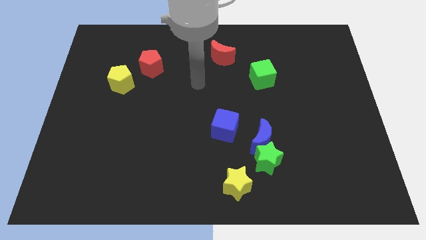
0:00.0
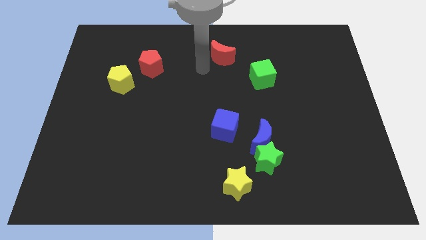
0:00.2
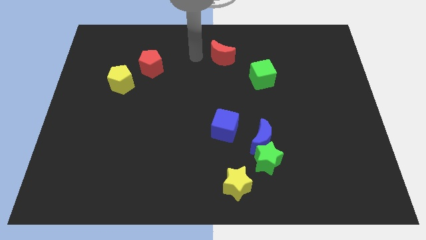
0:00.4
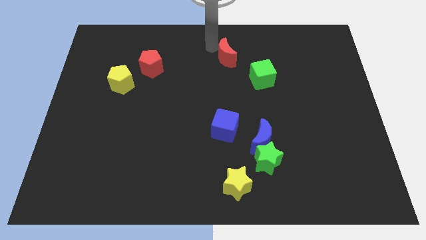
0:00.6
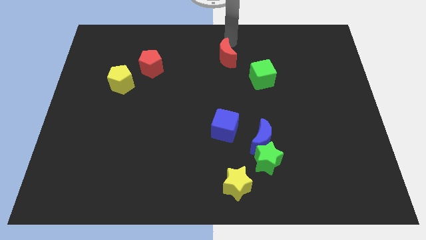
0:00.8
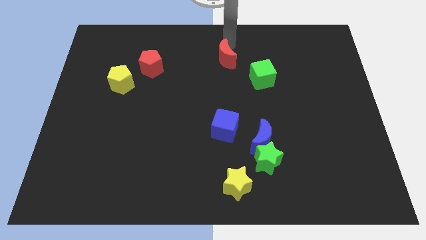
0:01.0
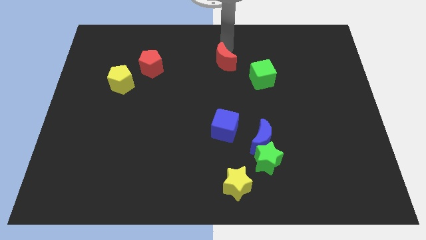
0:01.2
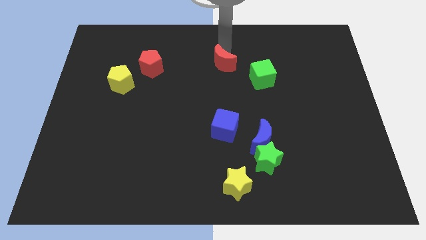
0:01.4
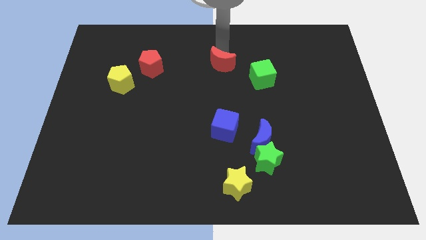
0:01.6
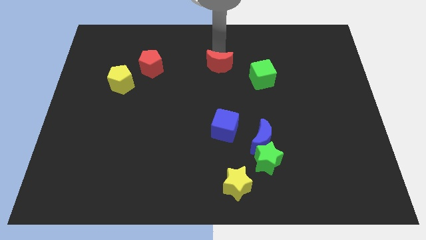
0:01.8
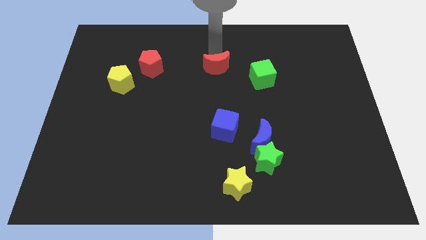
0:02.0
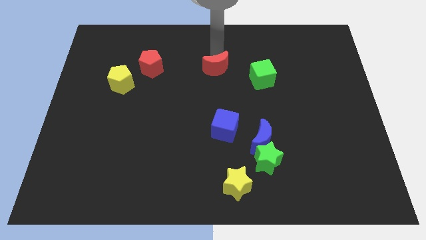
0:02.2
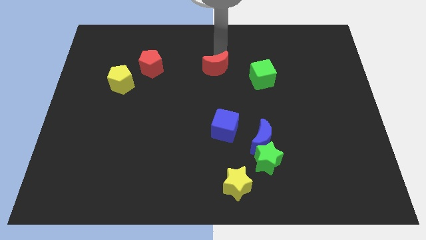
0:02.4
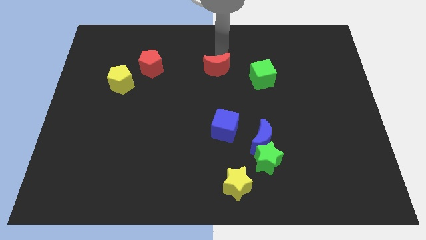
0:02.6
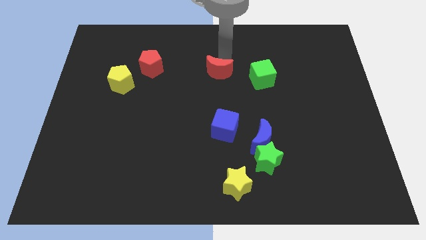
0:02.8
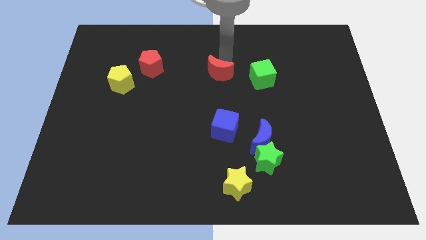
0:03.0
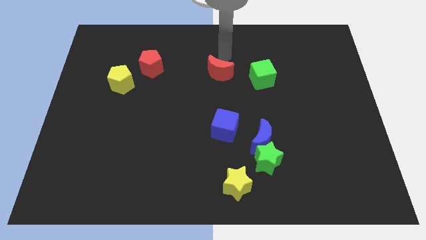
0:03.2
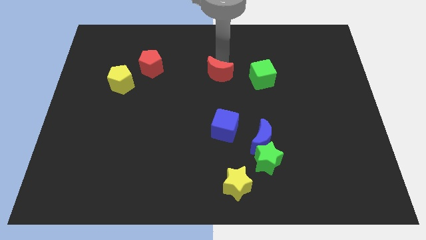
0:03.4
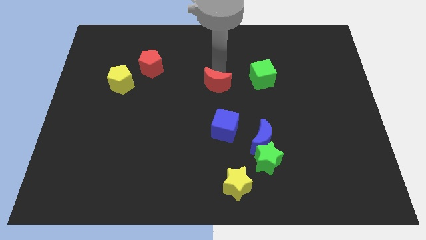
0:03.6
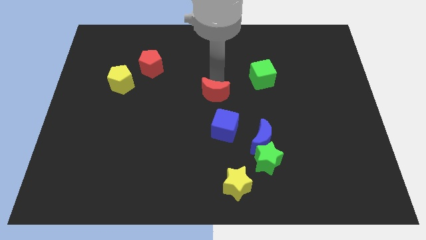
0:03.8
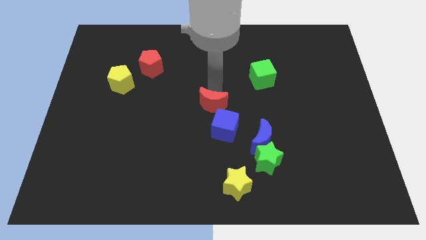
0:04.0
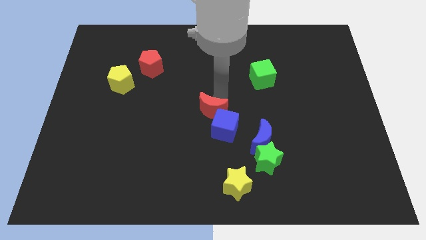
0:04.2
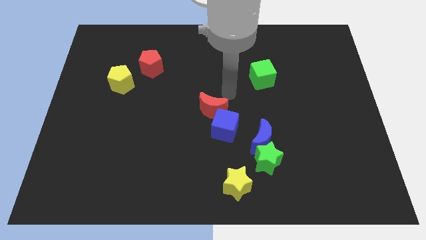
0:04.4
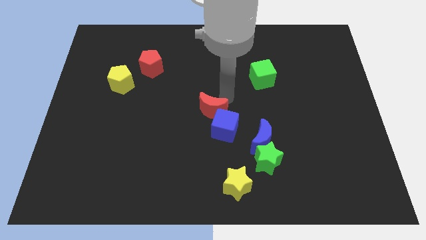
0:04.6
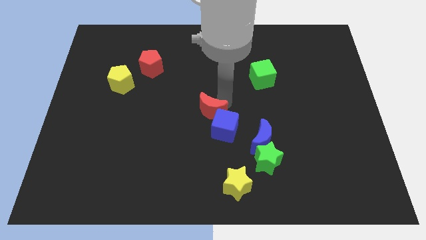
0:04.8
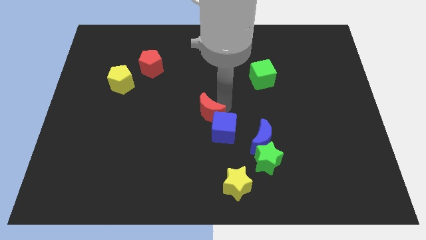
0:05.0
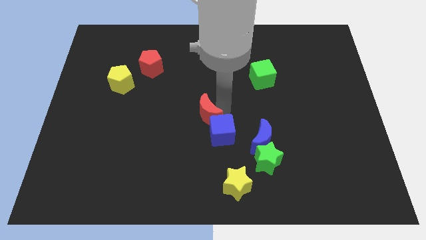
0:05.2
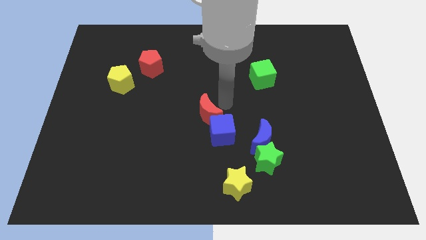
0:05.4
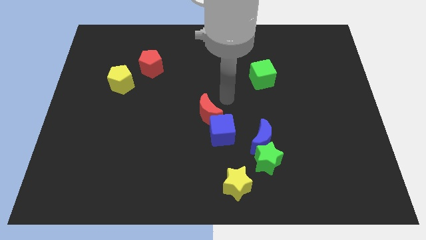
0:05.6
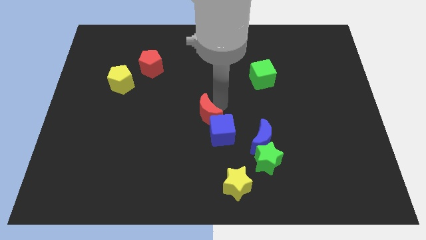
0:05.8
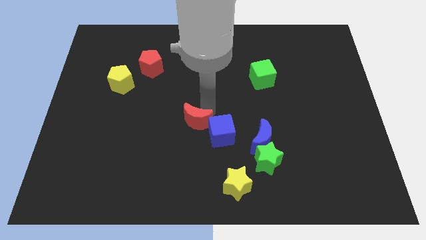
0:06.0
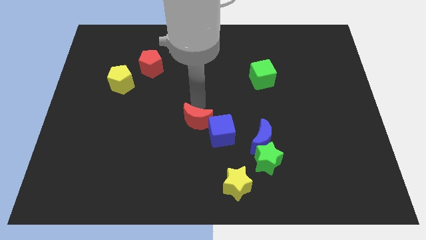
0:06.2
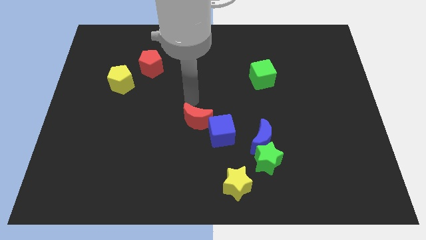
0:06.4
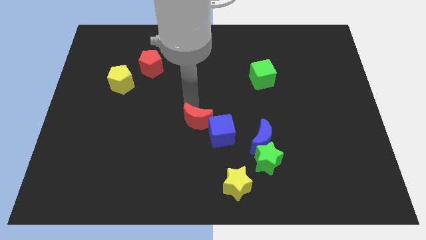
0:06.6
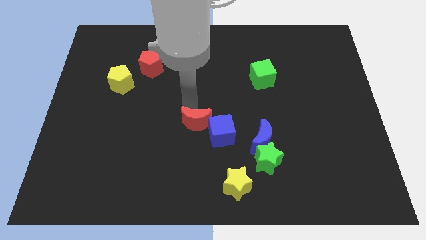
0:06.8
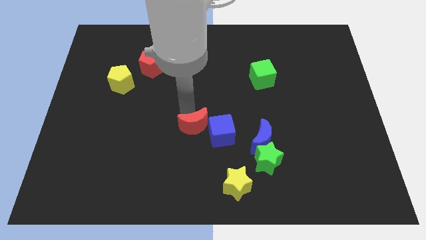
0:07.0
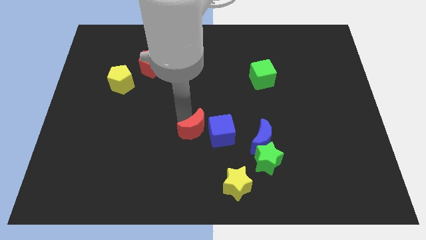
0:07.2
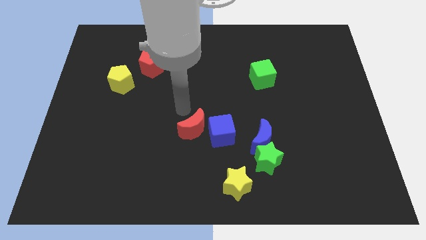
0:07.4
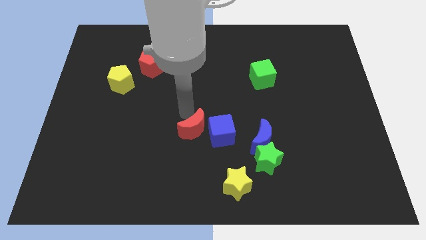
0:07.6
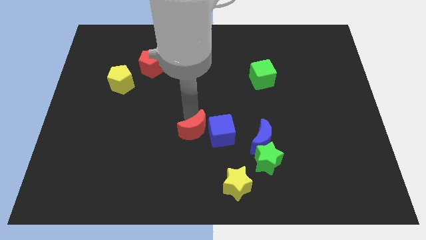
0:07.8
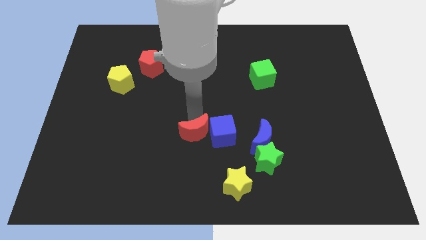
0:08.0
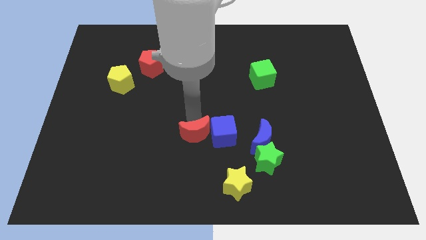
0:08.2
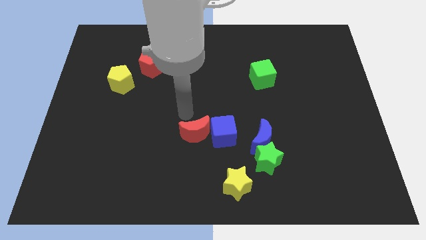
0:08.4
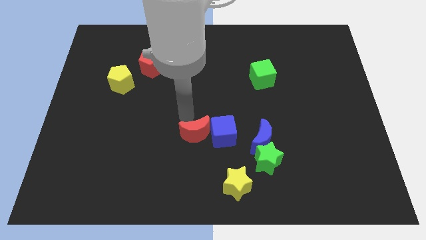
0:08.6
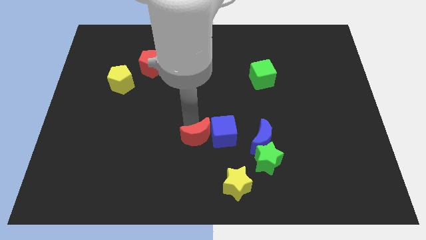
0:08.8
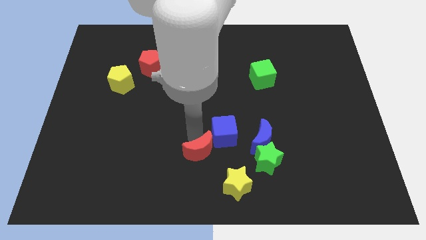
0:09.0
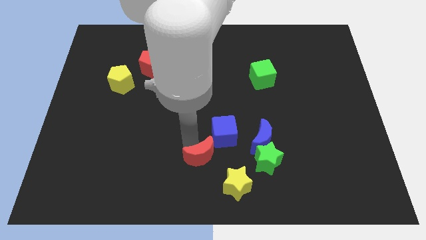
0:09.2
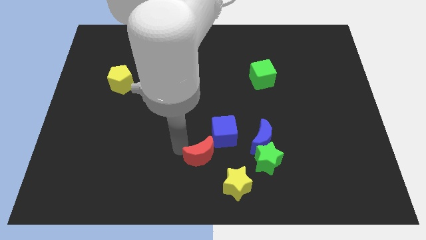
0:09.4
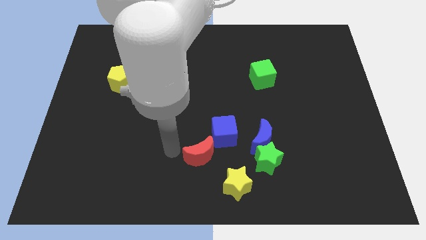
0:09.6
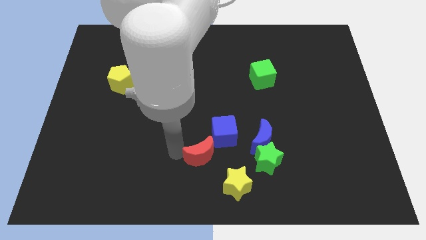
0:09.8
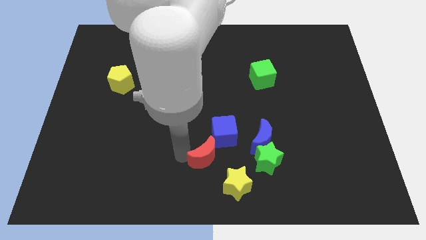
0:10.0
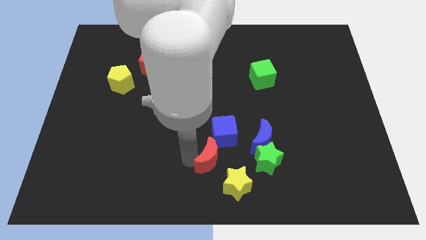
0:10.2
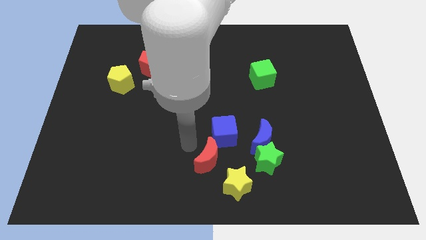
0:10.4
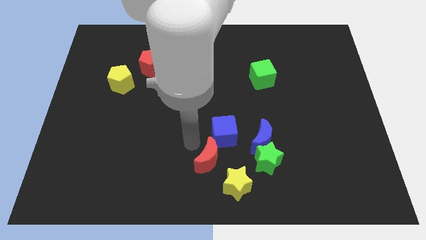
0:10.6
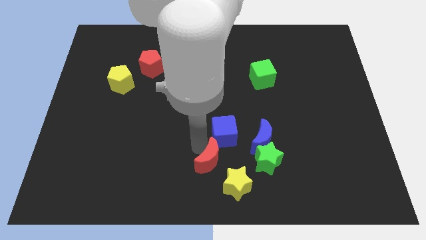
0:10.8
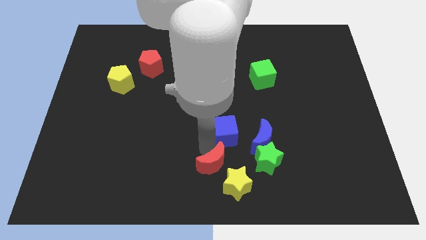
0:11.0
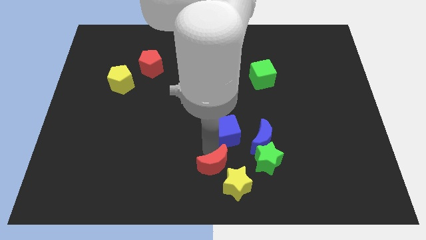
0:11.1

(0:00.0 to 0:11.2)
move the red moon next to the yellow star

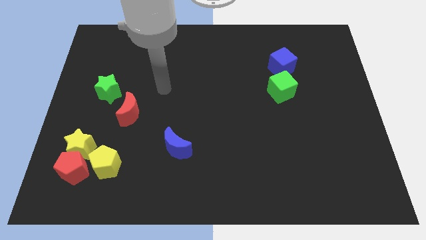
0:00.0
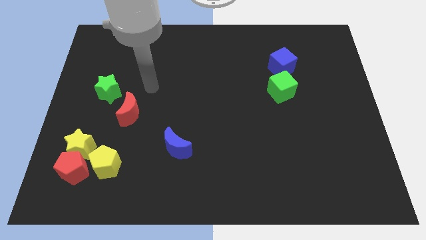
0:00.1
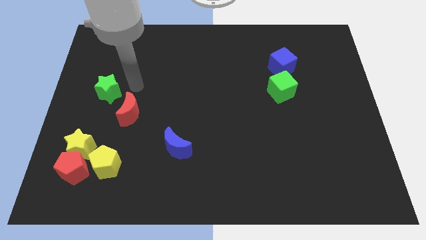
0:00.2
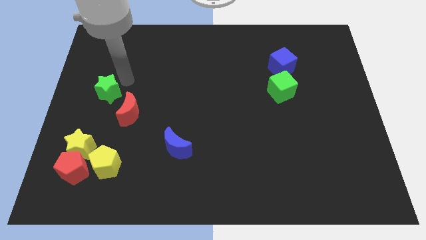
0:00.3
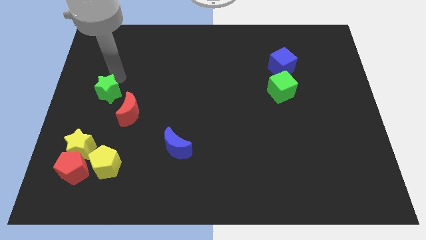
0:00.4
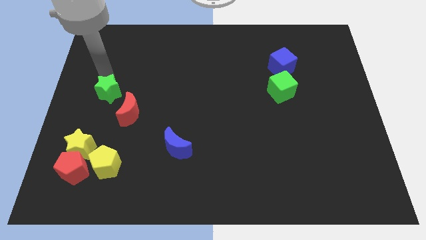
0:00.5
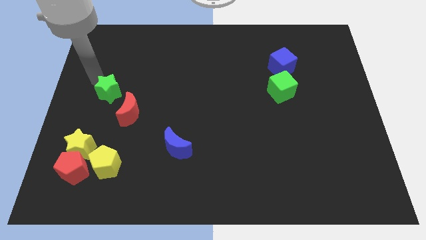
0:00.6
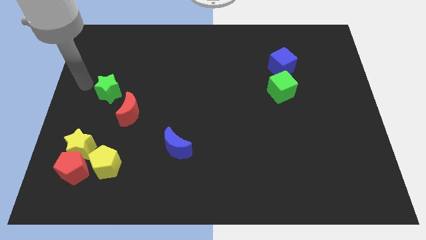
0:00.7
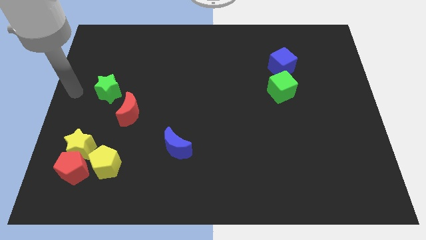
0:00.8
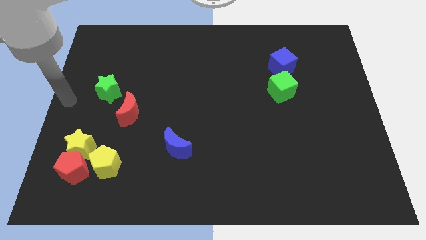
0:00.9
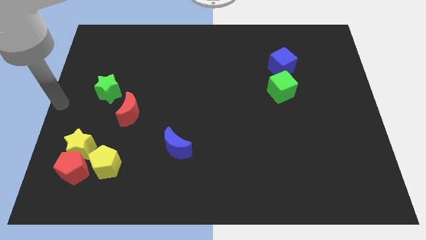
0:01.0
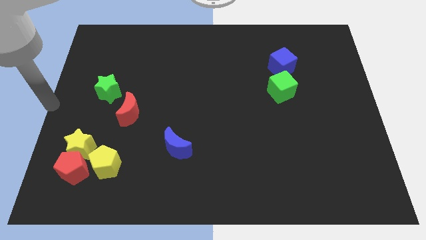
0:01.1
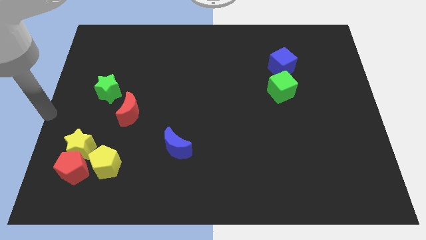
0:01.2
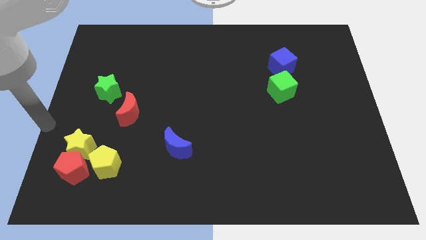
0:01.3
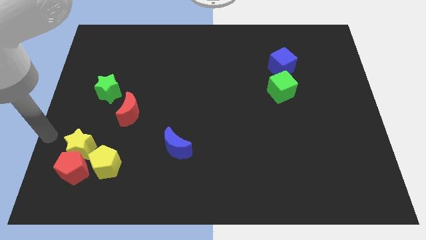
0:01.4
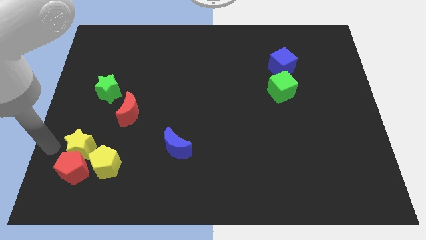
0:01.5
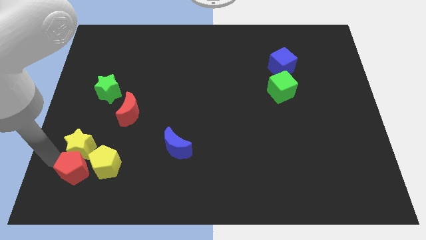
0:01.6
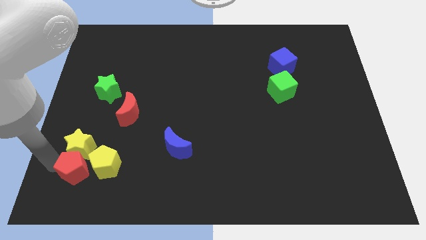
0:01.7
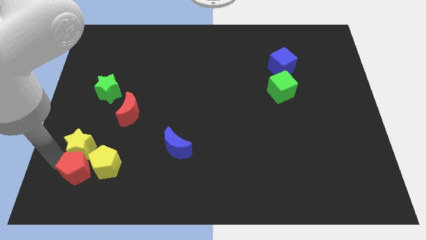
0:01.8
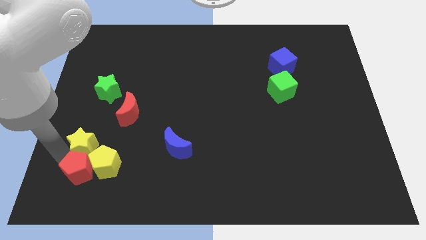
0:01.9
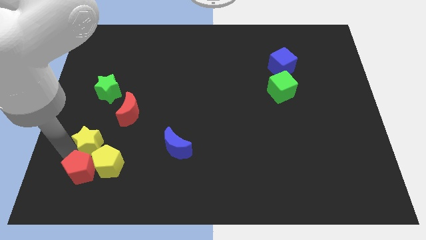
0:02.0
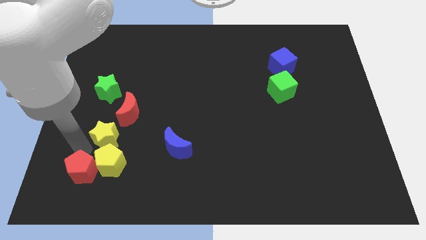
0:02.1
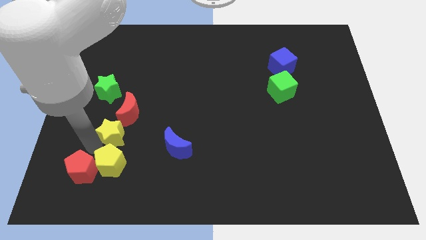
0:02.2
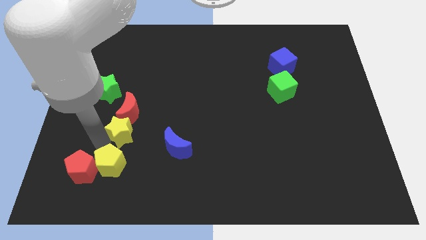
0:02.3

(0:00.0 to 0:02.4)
move the yellow star close to the red moon

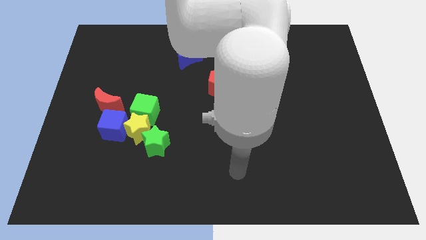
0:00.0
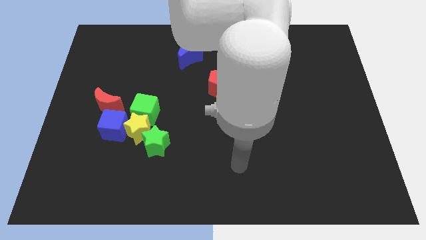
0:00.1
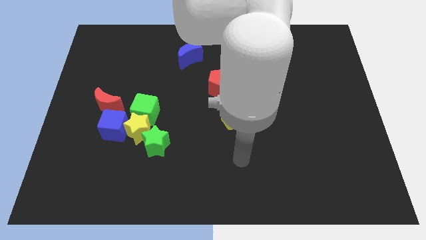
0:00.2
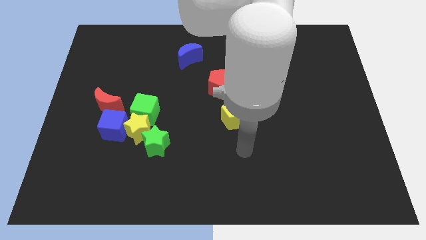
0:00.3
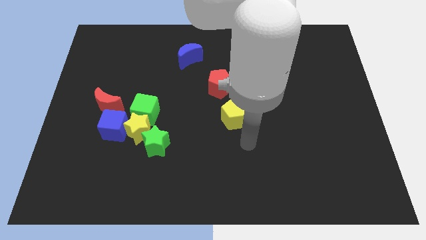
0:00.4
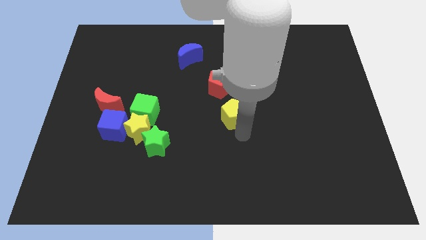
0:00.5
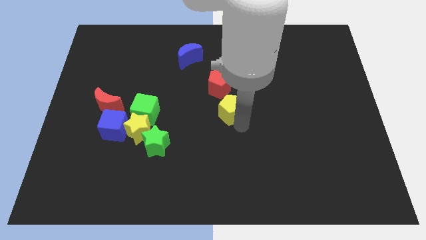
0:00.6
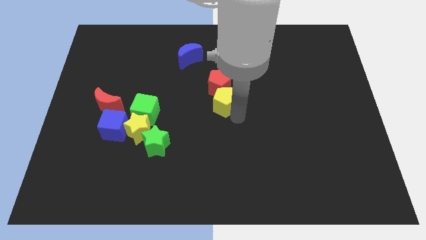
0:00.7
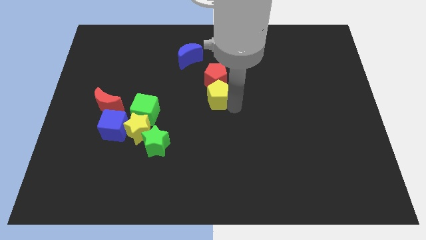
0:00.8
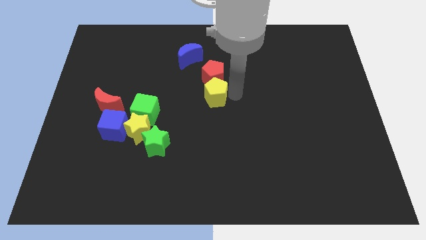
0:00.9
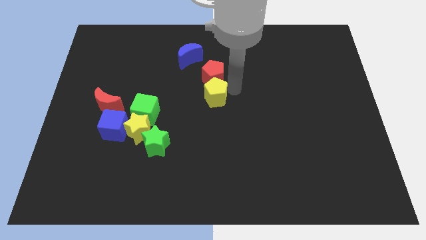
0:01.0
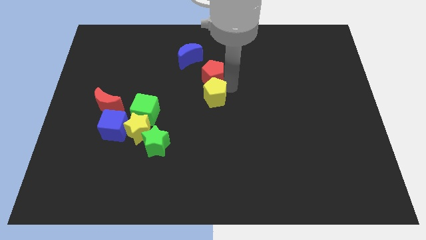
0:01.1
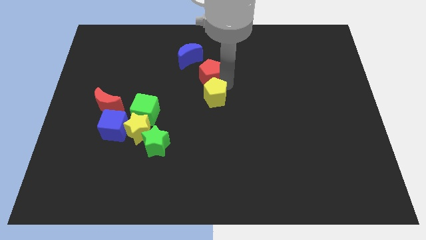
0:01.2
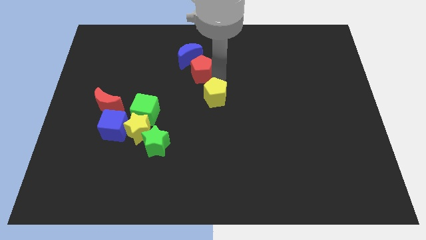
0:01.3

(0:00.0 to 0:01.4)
push the red pentagon next to the blue moon
